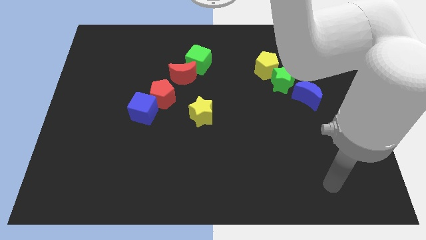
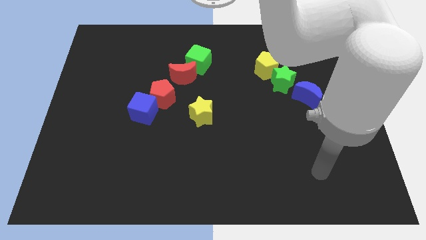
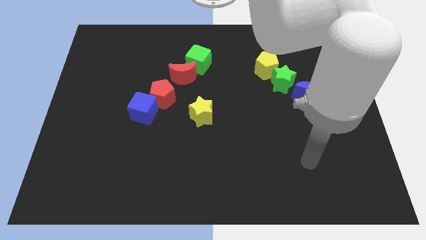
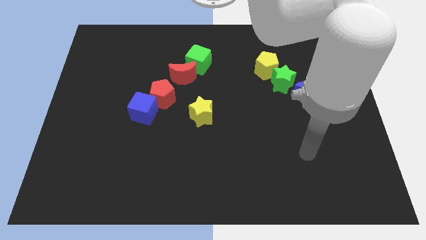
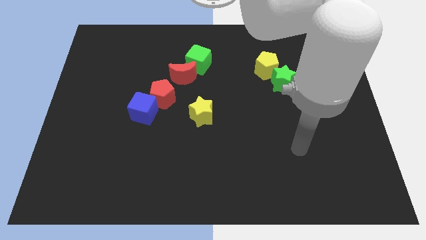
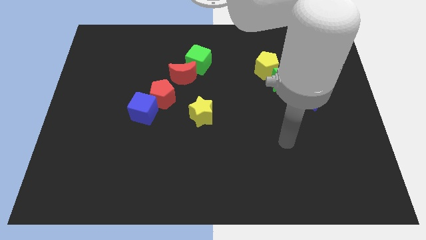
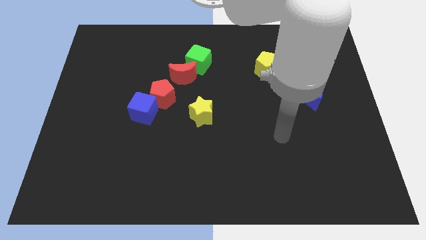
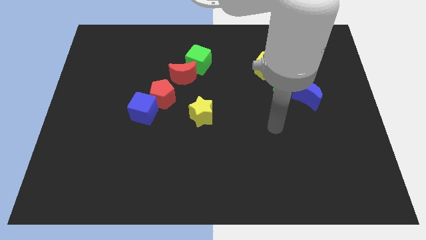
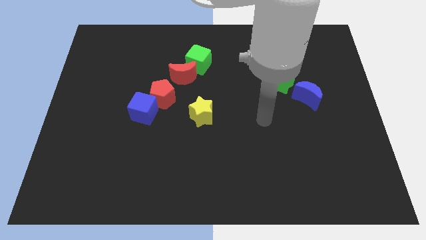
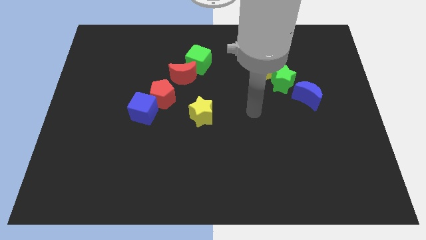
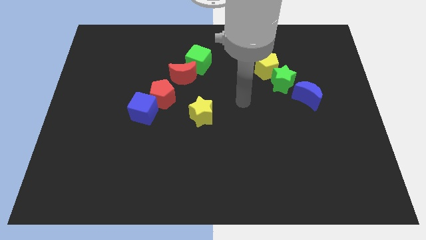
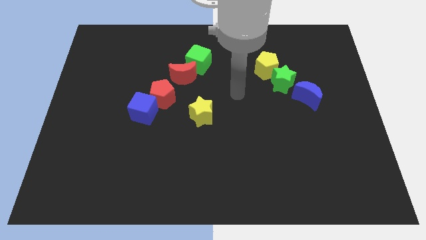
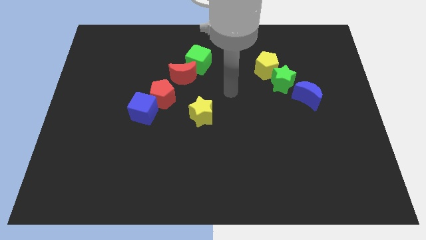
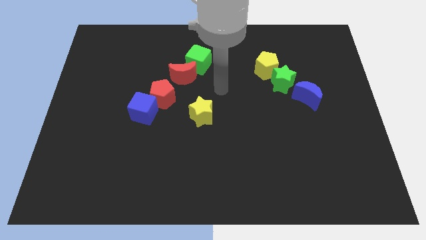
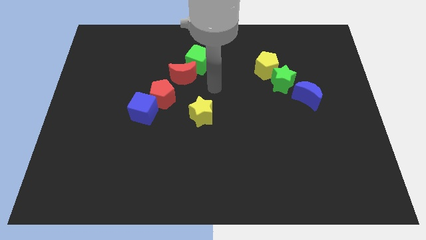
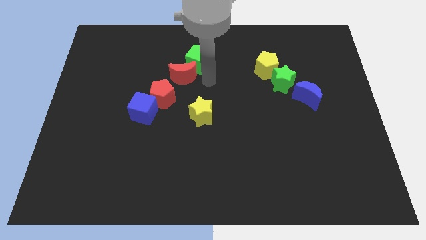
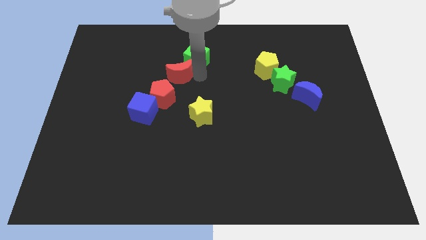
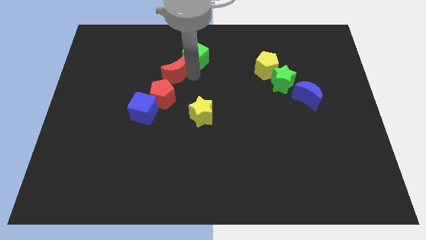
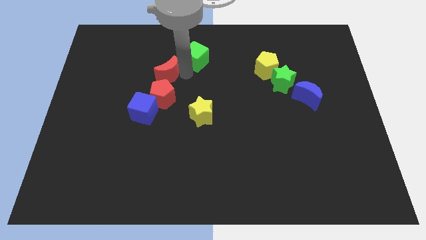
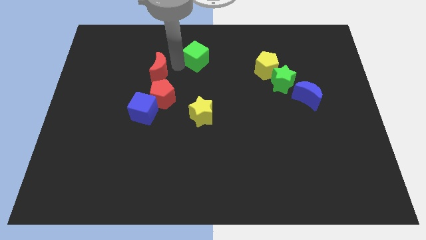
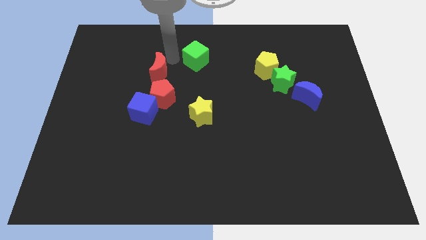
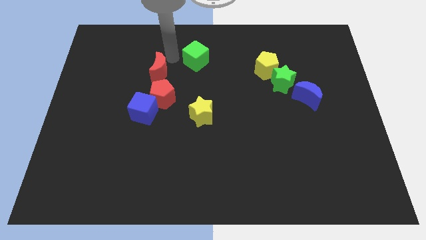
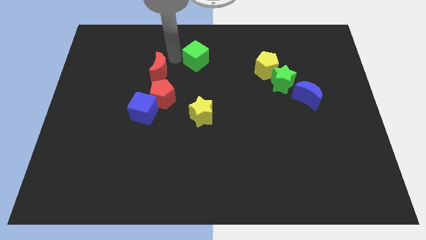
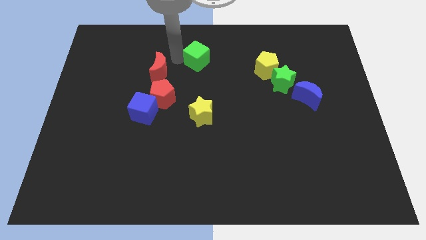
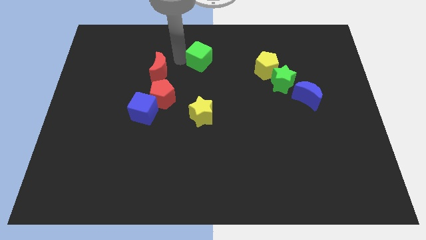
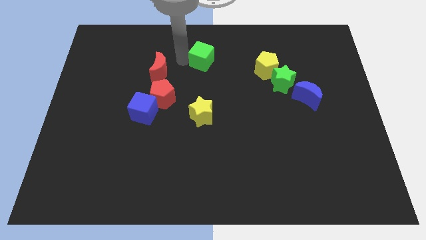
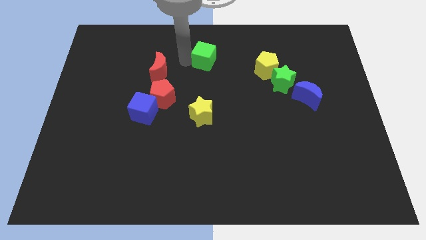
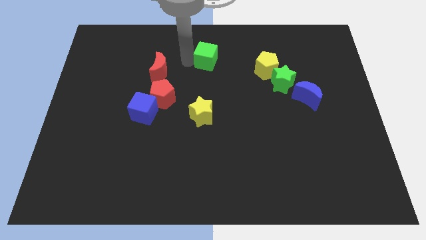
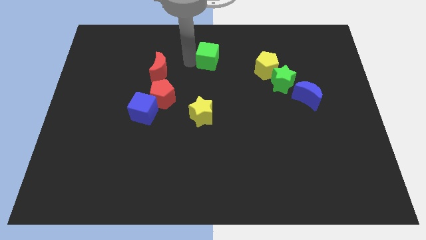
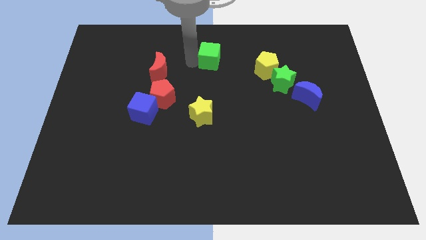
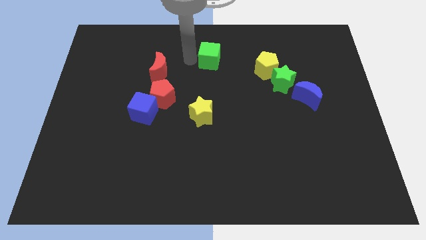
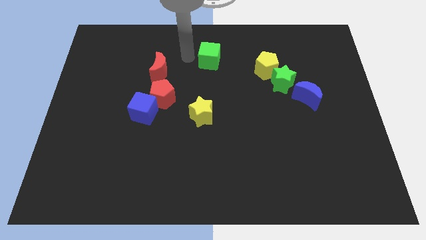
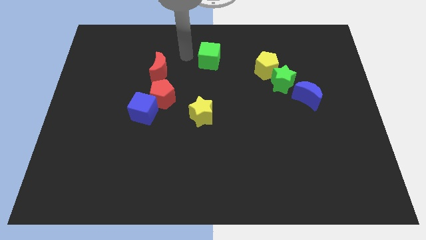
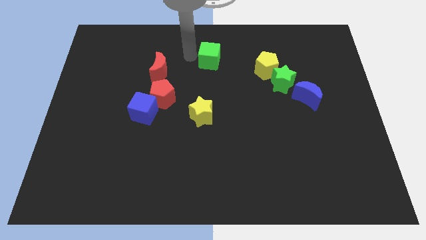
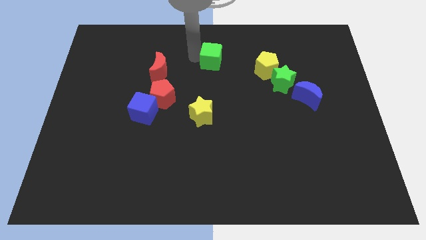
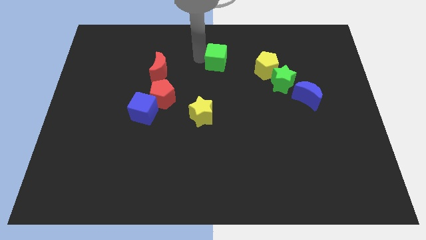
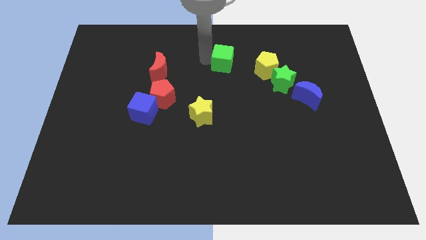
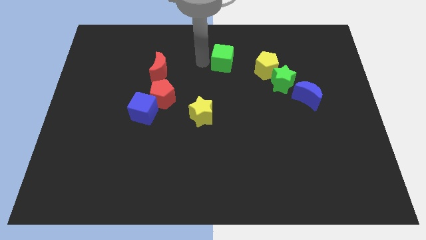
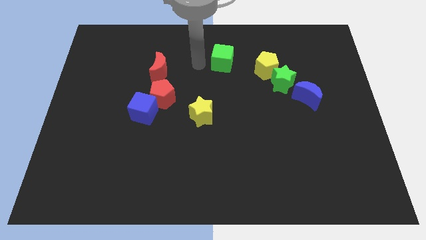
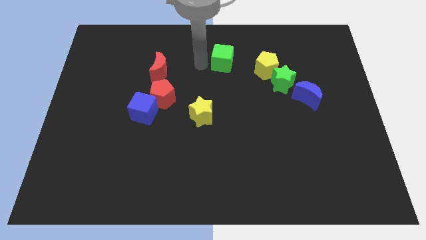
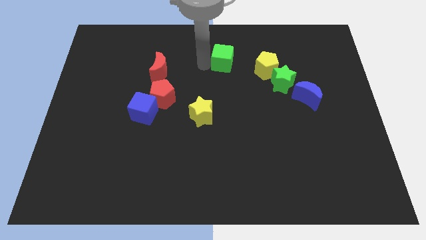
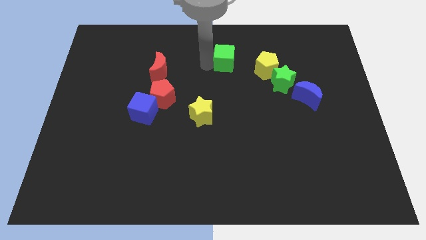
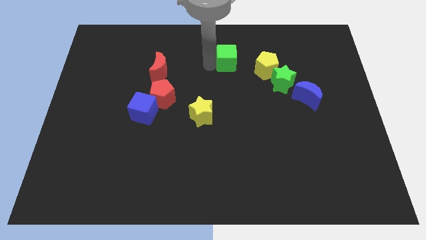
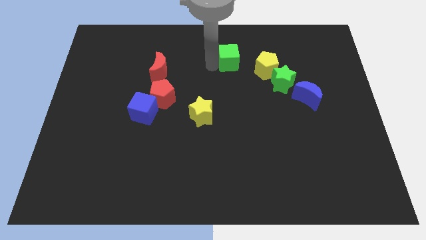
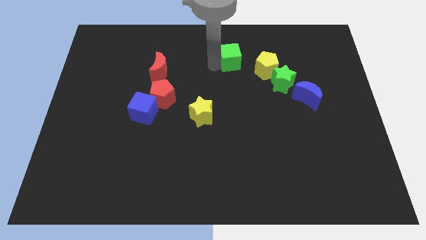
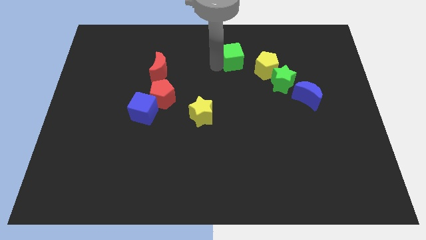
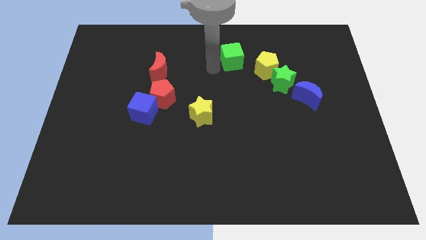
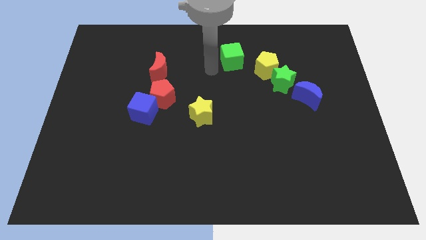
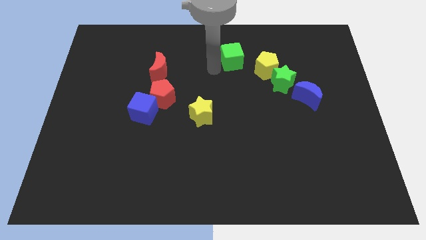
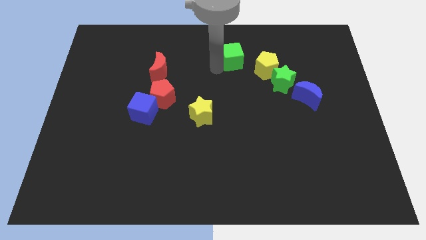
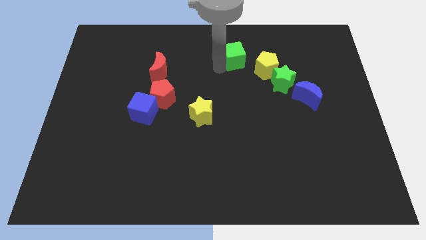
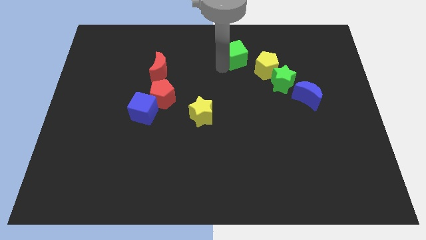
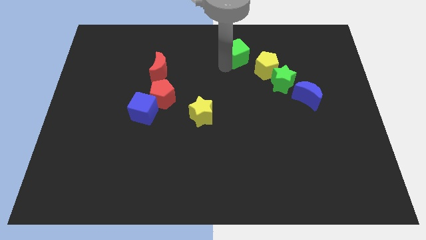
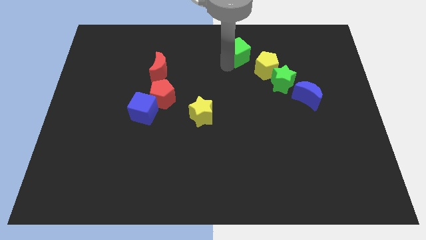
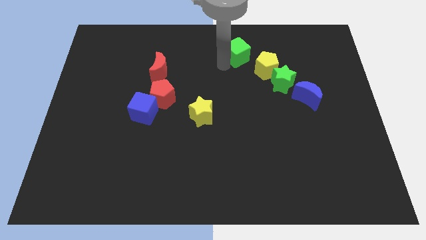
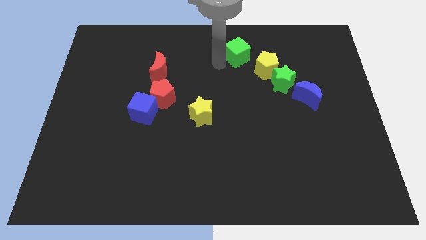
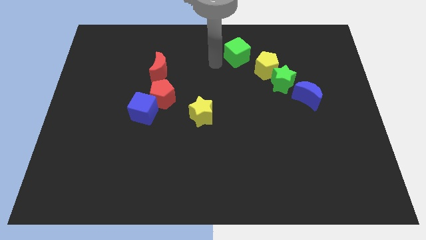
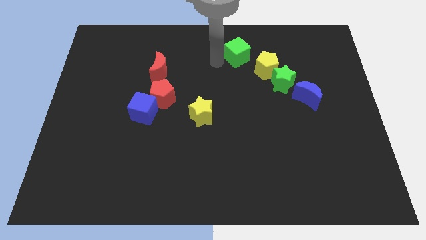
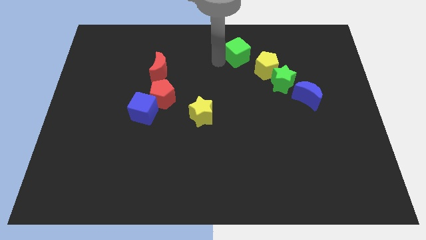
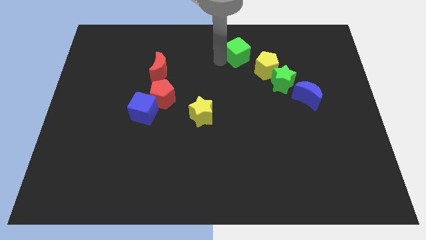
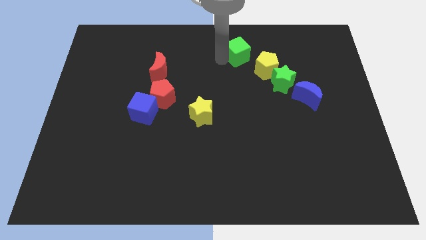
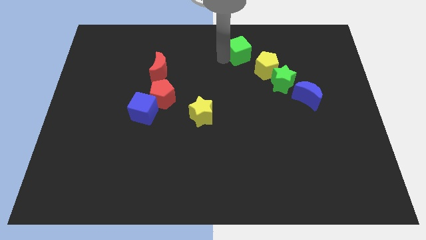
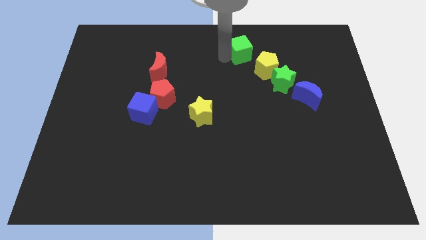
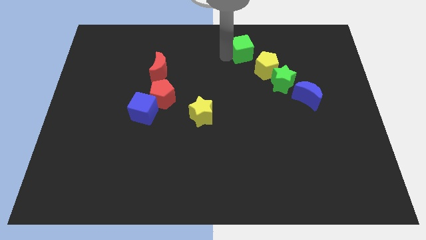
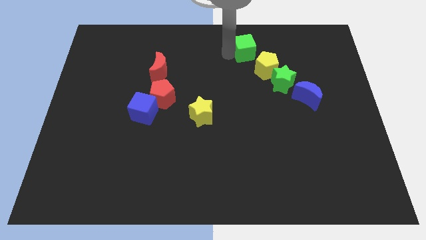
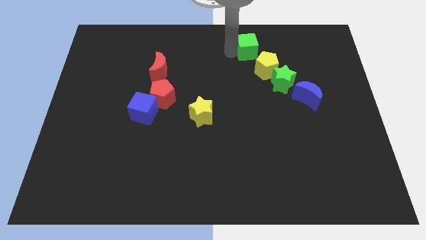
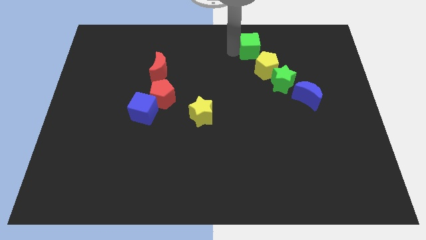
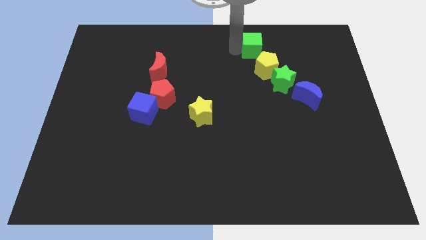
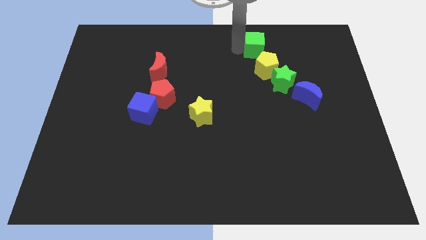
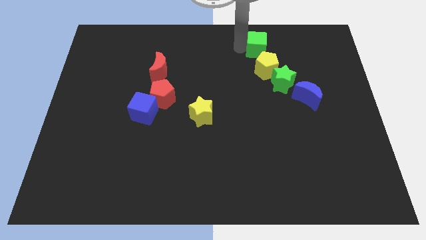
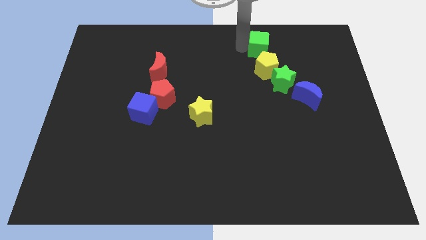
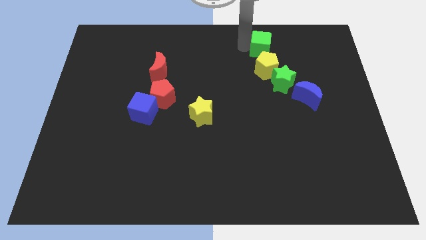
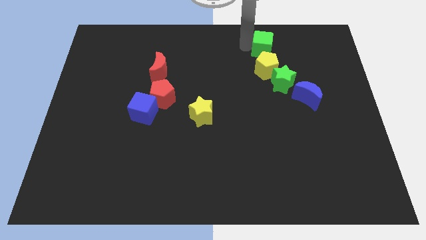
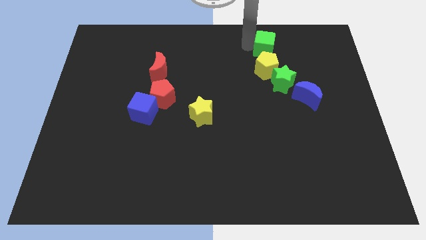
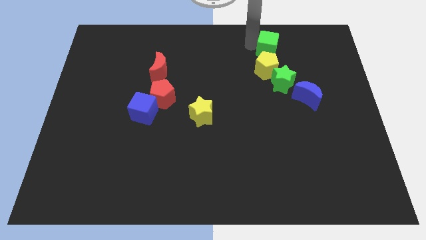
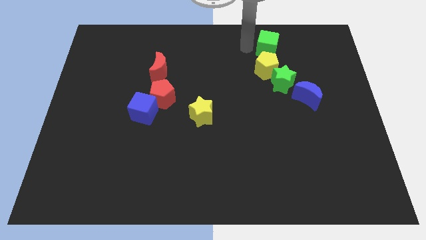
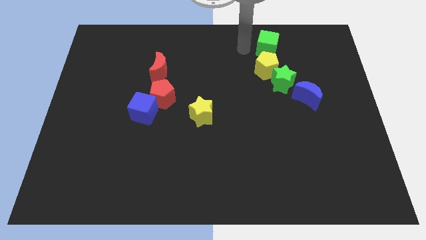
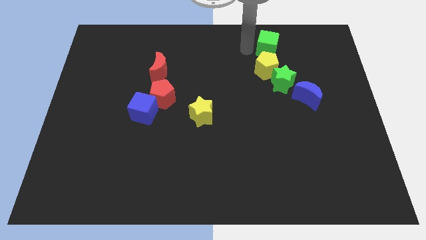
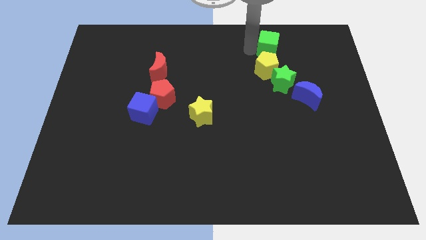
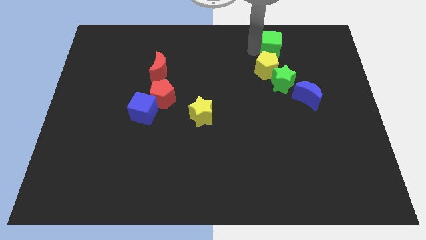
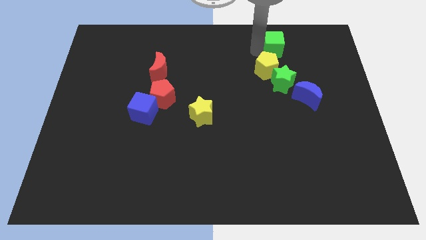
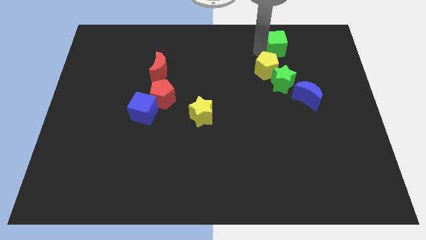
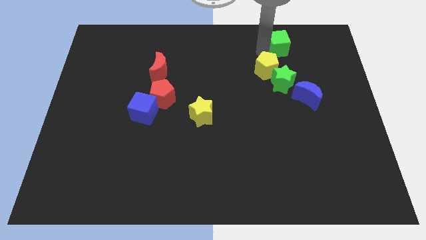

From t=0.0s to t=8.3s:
slide the green cube right
